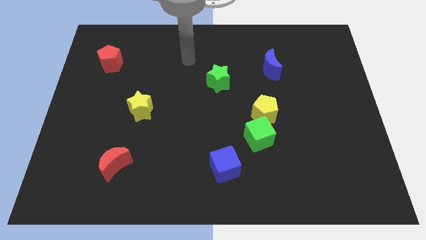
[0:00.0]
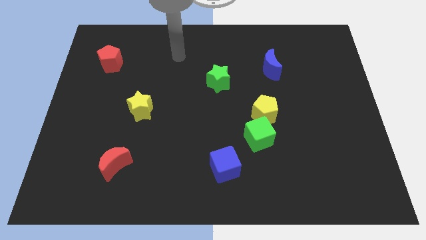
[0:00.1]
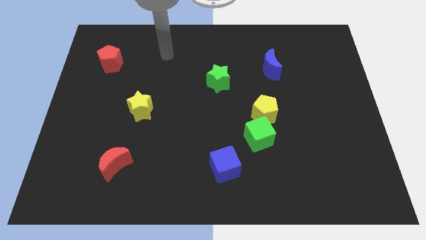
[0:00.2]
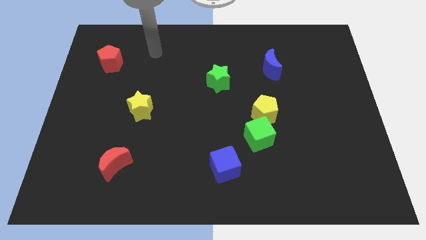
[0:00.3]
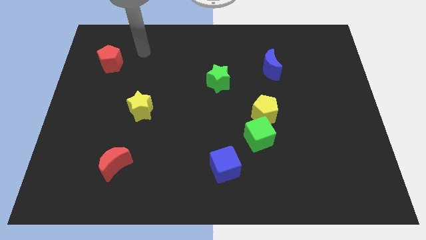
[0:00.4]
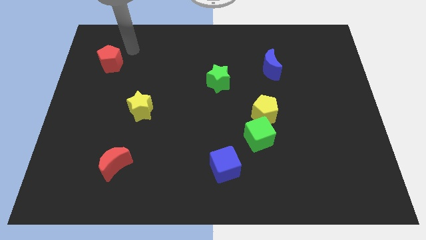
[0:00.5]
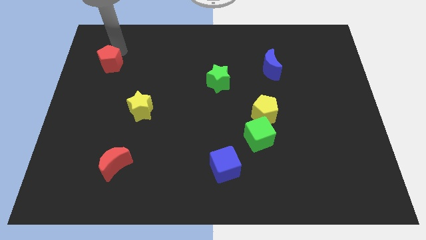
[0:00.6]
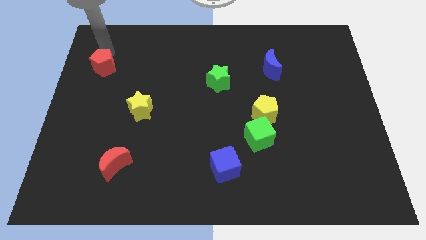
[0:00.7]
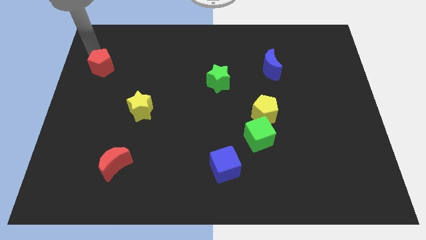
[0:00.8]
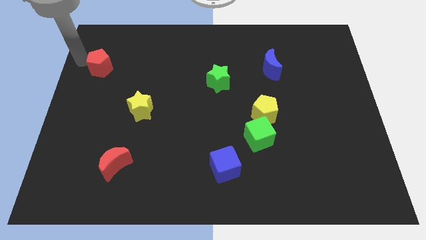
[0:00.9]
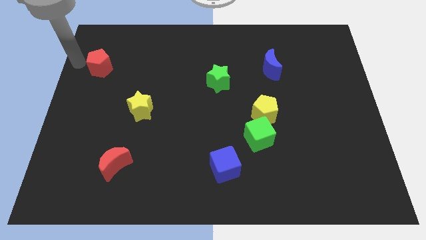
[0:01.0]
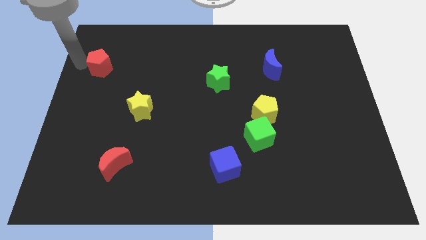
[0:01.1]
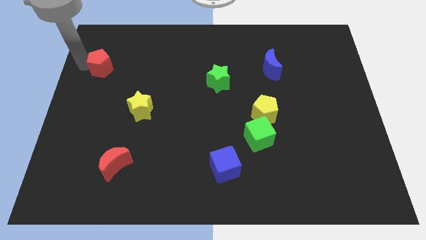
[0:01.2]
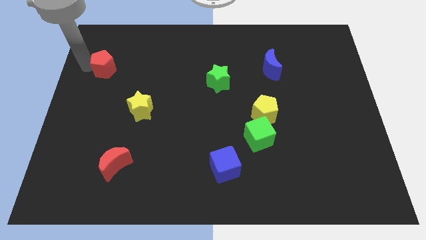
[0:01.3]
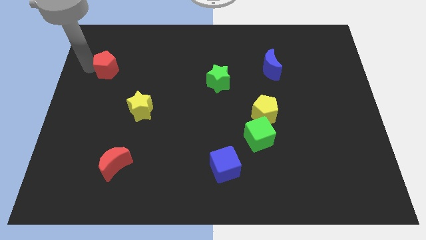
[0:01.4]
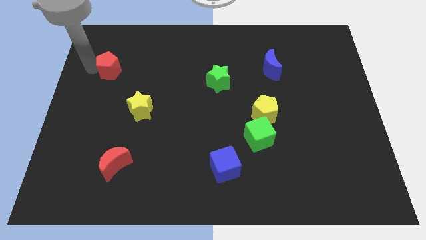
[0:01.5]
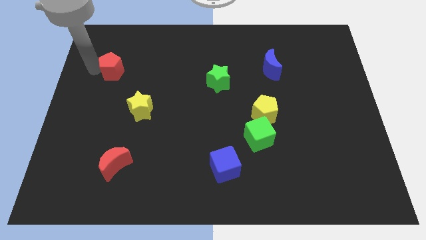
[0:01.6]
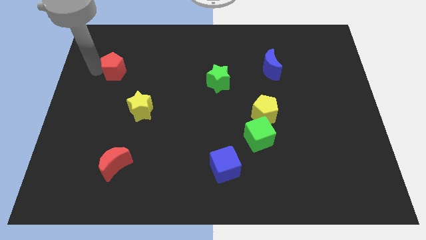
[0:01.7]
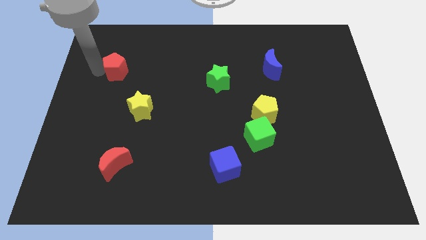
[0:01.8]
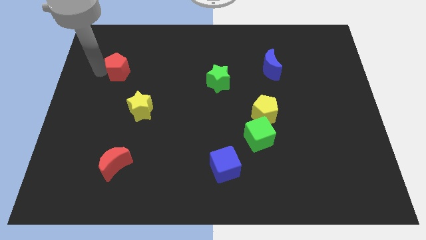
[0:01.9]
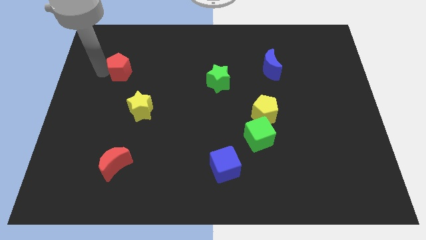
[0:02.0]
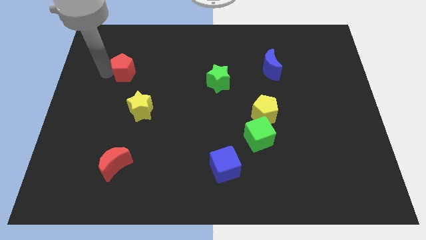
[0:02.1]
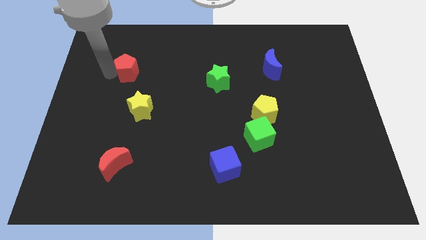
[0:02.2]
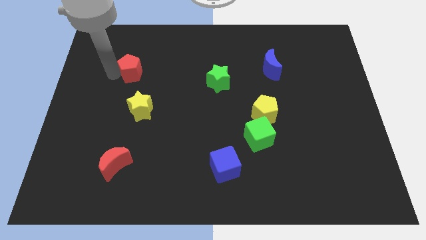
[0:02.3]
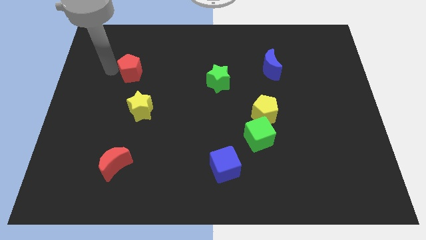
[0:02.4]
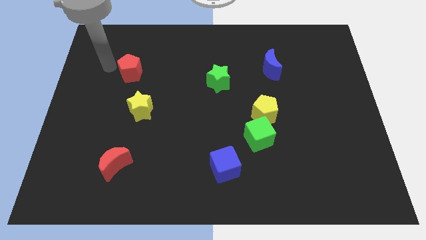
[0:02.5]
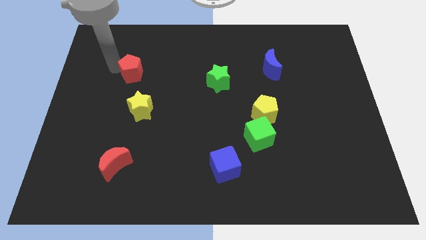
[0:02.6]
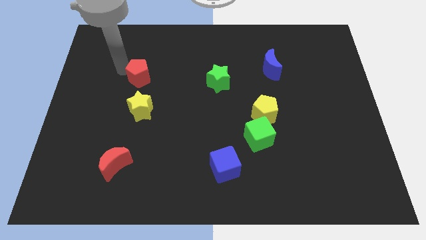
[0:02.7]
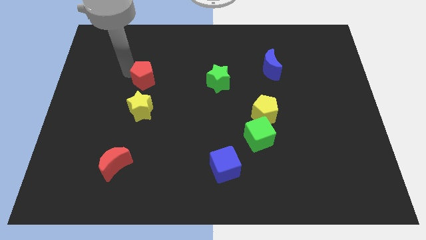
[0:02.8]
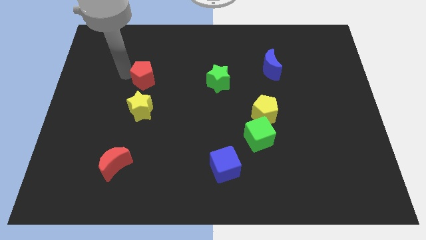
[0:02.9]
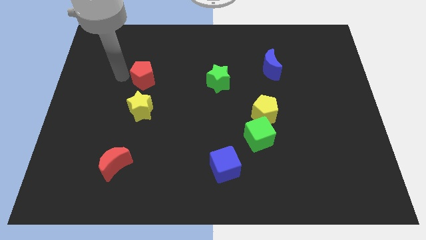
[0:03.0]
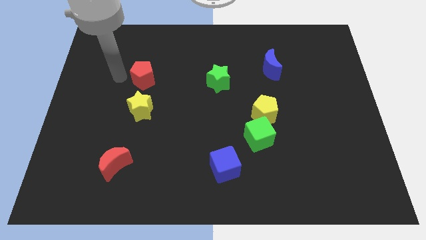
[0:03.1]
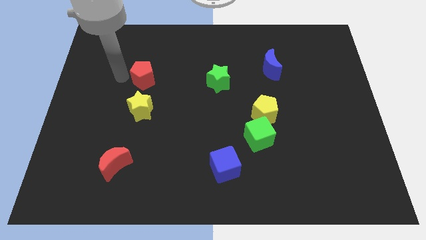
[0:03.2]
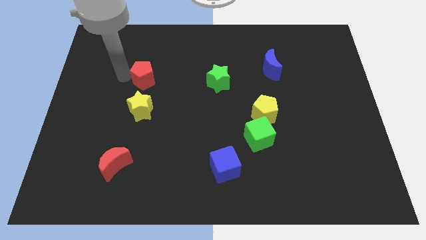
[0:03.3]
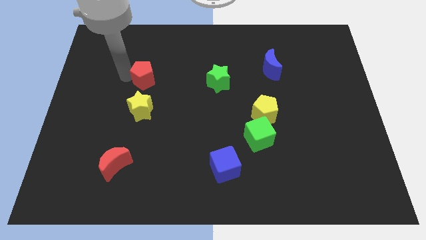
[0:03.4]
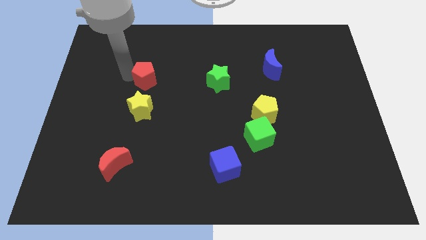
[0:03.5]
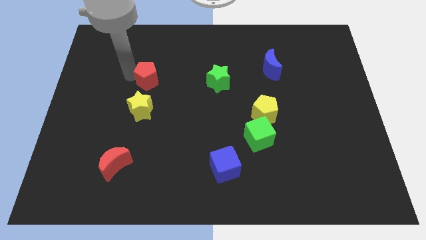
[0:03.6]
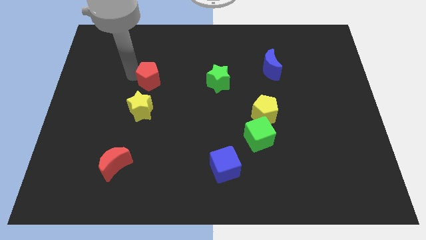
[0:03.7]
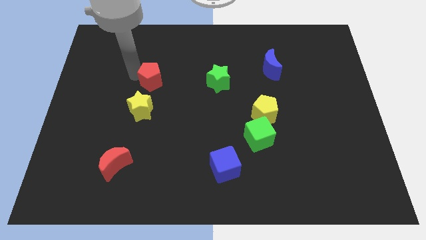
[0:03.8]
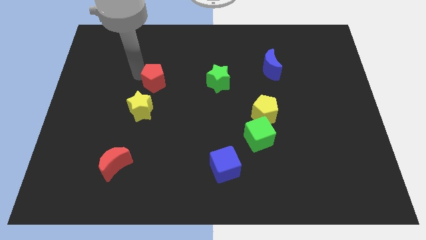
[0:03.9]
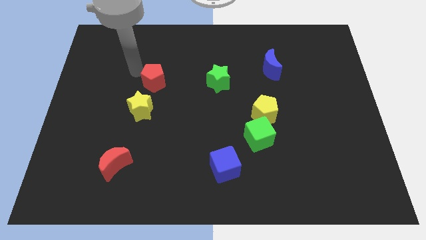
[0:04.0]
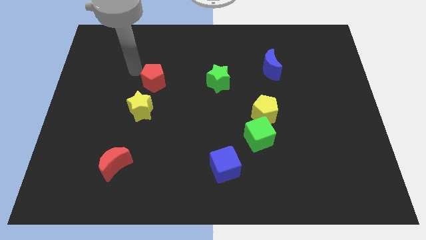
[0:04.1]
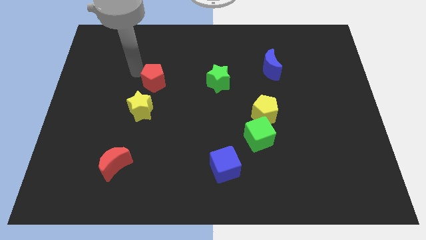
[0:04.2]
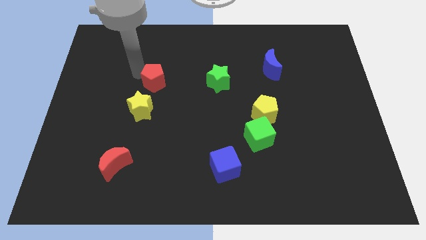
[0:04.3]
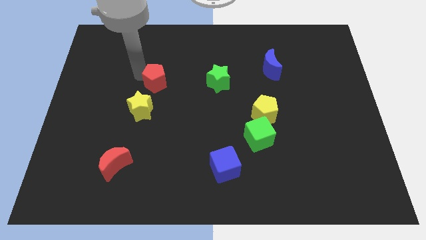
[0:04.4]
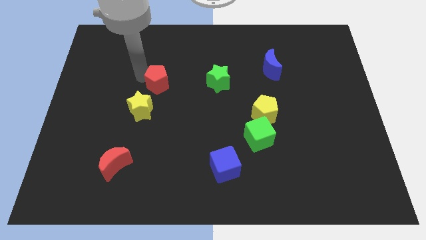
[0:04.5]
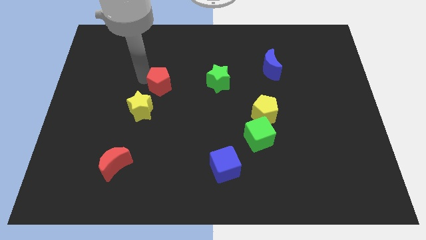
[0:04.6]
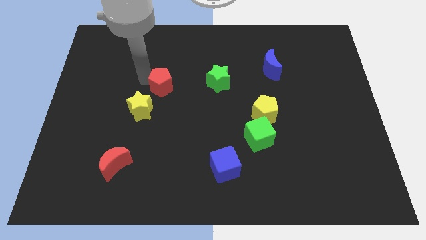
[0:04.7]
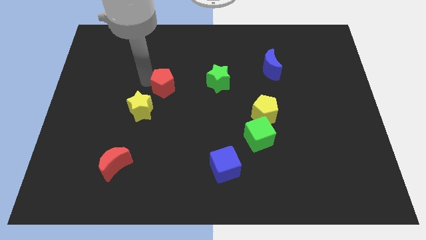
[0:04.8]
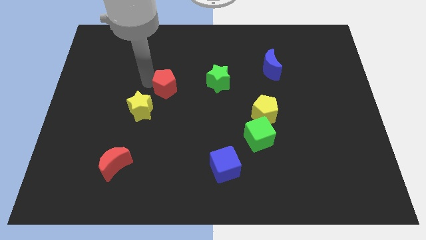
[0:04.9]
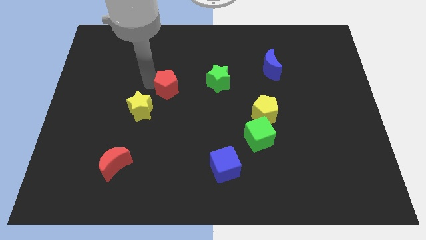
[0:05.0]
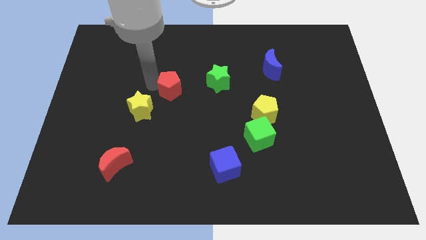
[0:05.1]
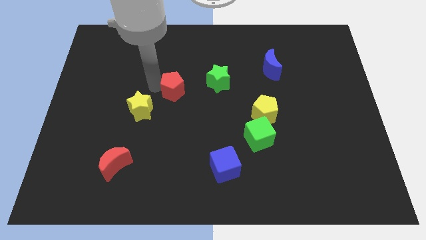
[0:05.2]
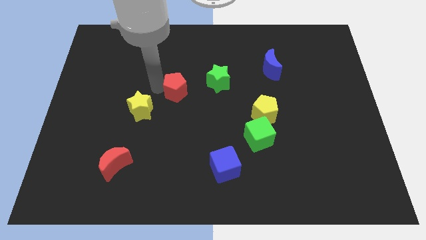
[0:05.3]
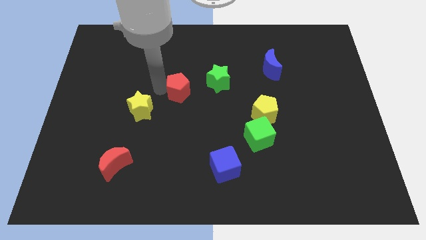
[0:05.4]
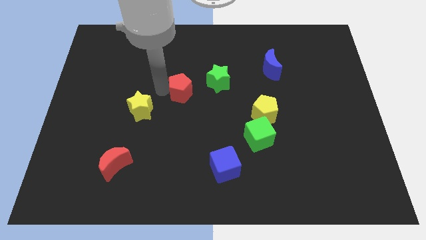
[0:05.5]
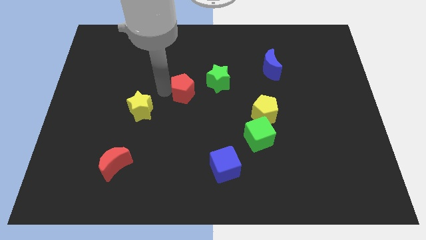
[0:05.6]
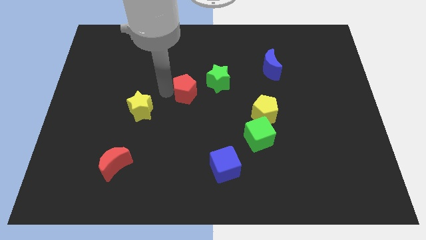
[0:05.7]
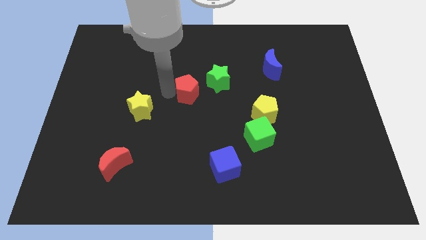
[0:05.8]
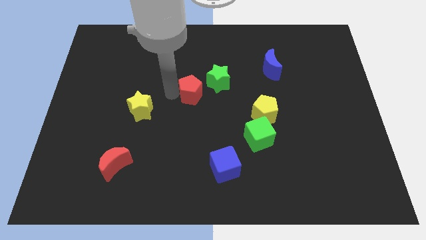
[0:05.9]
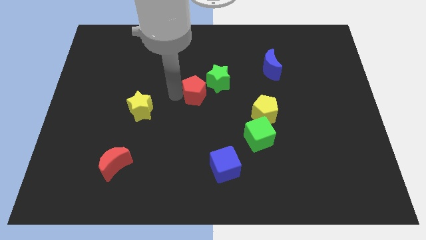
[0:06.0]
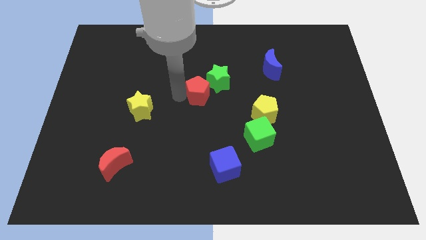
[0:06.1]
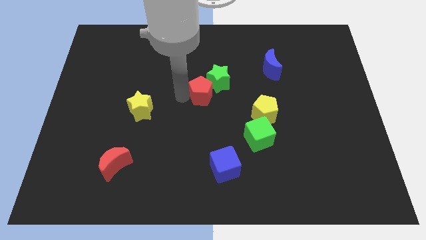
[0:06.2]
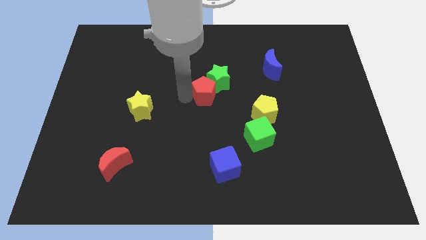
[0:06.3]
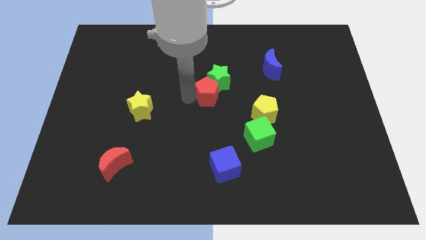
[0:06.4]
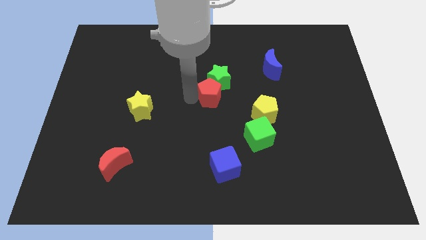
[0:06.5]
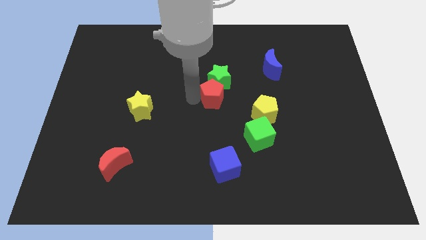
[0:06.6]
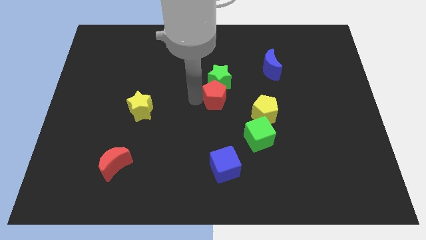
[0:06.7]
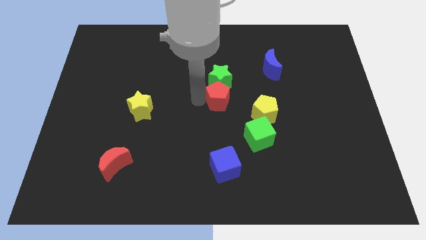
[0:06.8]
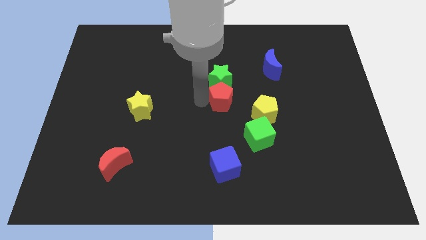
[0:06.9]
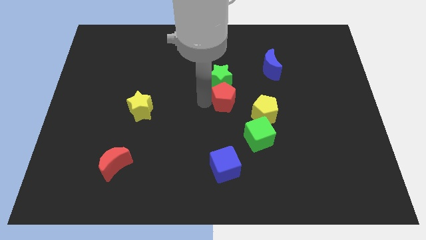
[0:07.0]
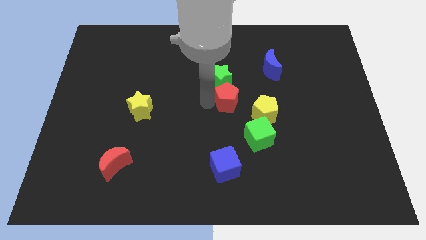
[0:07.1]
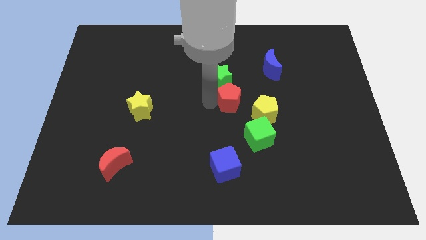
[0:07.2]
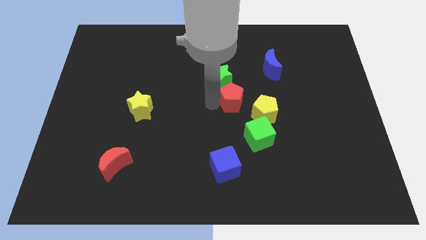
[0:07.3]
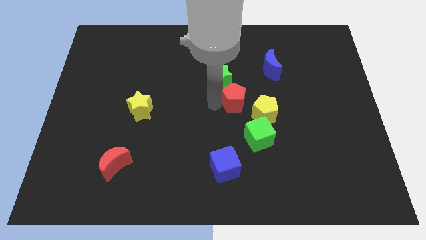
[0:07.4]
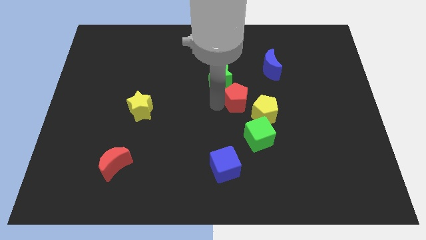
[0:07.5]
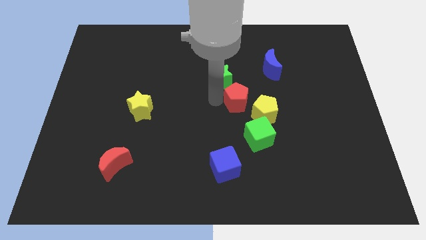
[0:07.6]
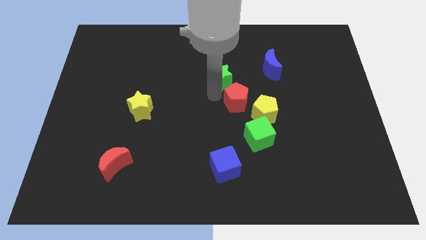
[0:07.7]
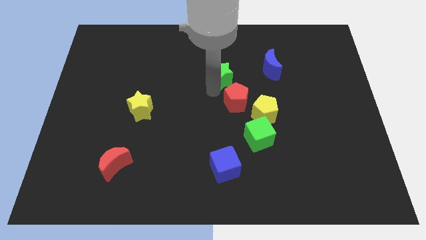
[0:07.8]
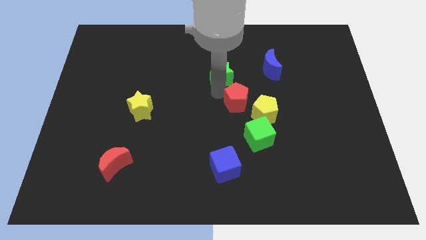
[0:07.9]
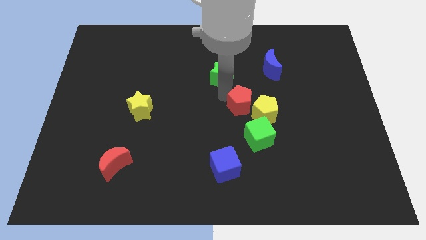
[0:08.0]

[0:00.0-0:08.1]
slide the red pentagon to the yellow pentagon
